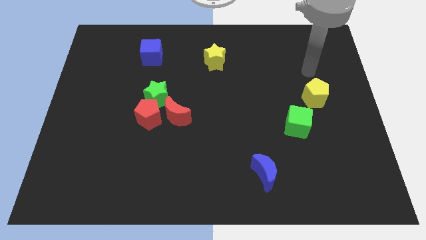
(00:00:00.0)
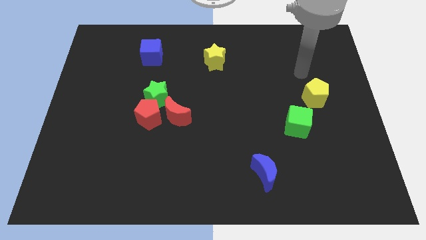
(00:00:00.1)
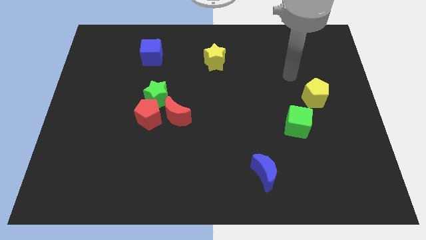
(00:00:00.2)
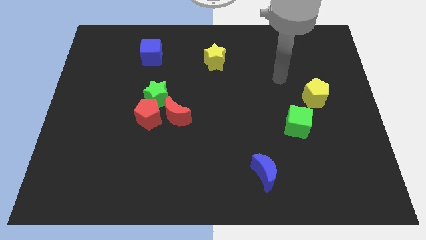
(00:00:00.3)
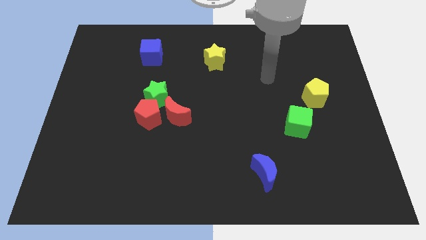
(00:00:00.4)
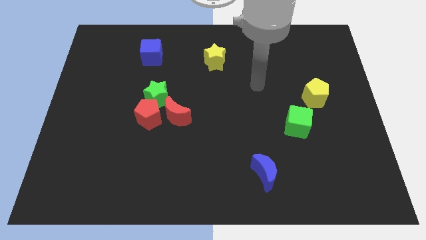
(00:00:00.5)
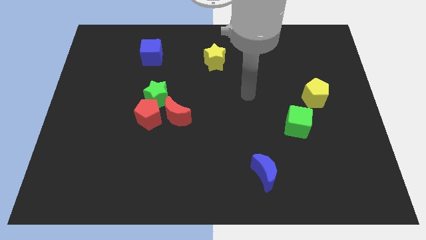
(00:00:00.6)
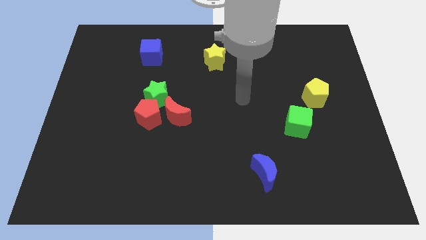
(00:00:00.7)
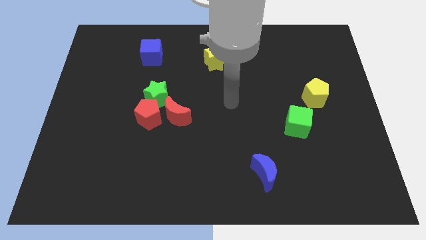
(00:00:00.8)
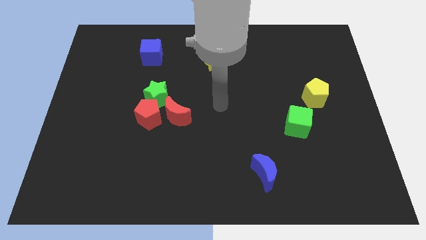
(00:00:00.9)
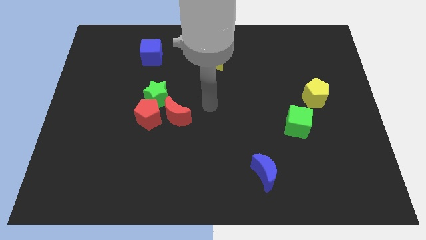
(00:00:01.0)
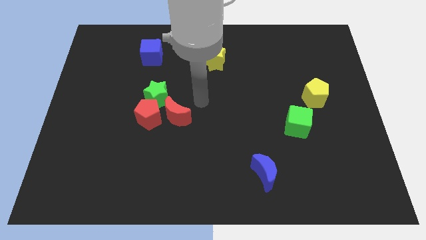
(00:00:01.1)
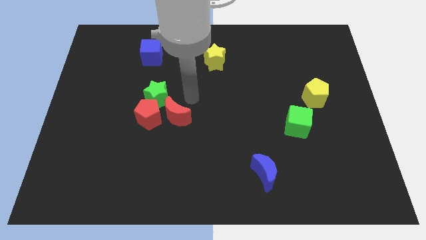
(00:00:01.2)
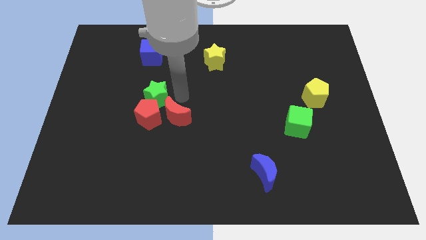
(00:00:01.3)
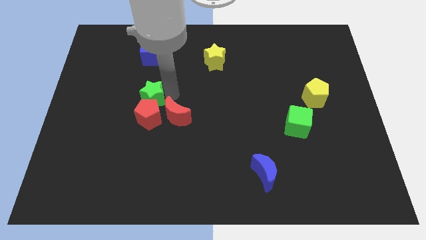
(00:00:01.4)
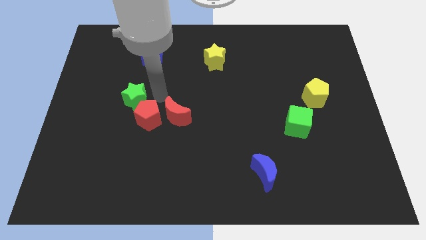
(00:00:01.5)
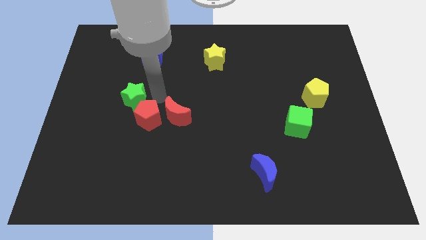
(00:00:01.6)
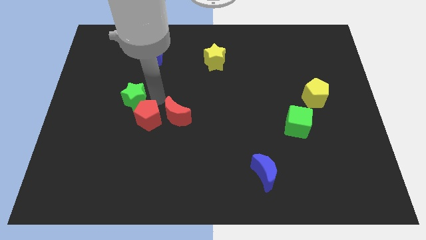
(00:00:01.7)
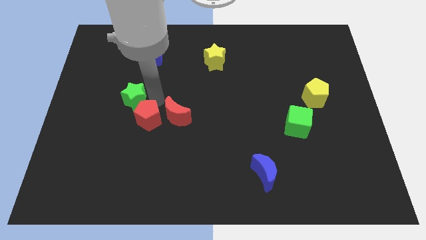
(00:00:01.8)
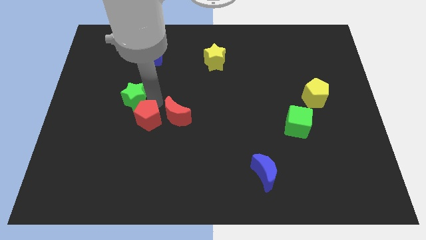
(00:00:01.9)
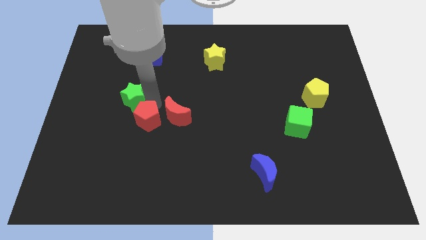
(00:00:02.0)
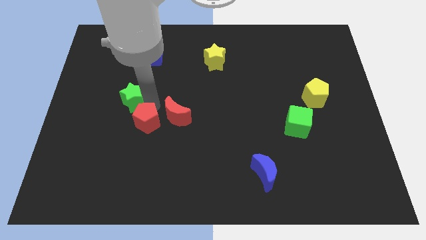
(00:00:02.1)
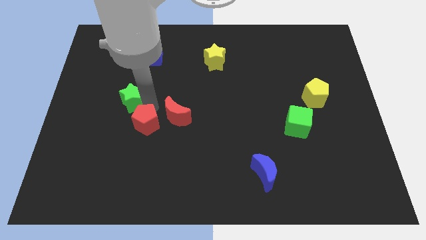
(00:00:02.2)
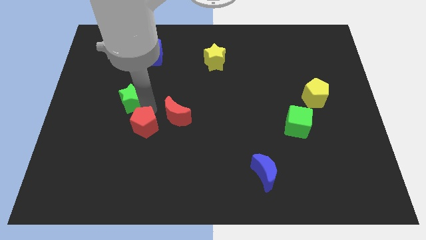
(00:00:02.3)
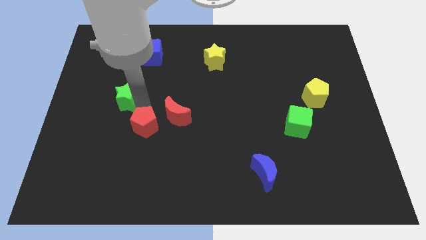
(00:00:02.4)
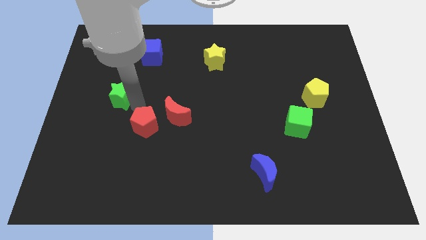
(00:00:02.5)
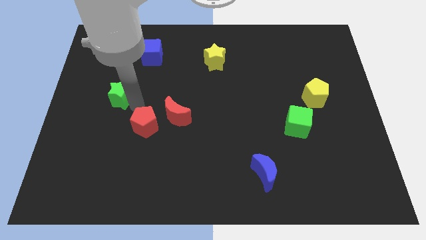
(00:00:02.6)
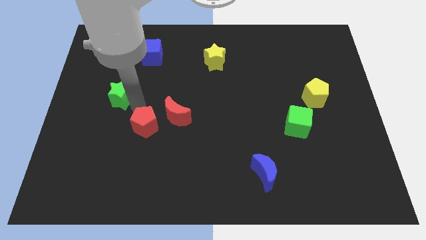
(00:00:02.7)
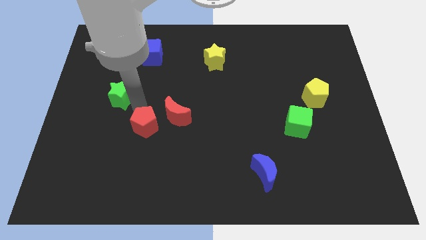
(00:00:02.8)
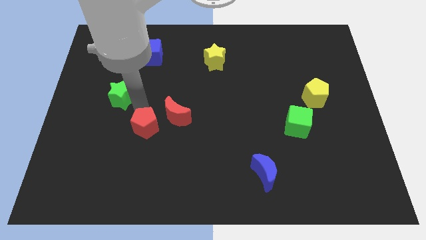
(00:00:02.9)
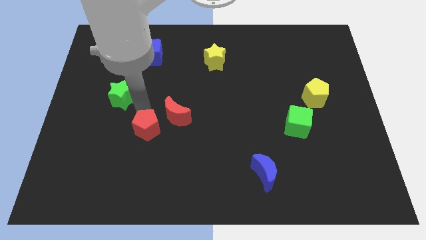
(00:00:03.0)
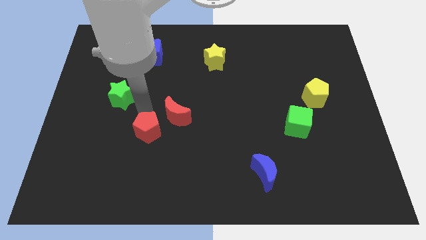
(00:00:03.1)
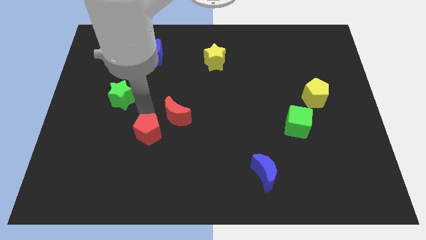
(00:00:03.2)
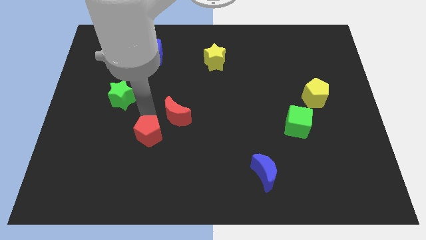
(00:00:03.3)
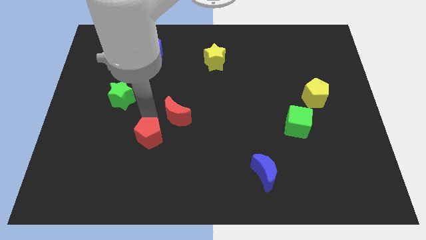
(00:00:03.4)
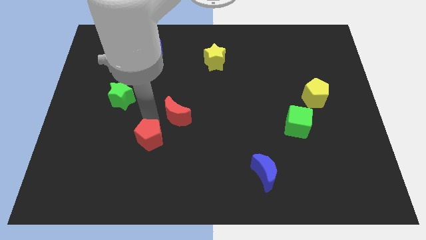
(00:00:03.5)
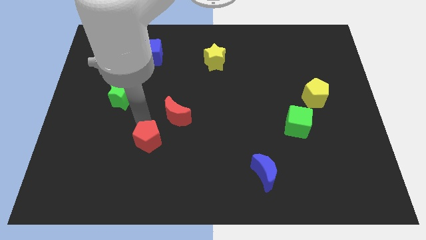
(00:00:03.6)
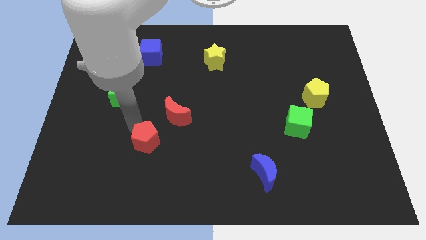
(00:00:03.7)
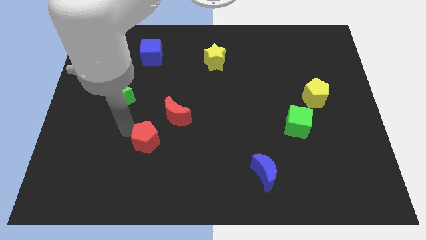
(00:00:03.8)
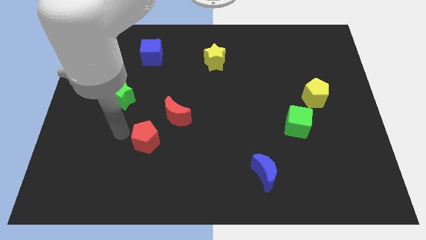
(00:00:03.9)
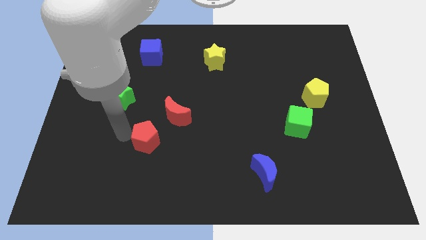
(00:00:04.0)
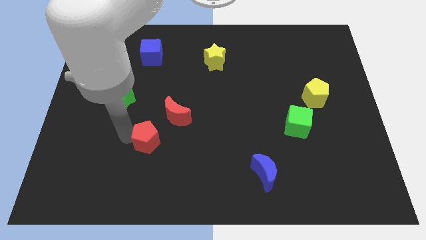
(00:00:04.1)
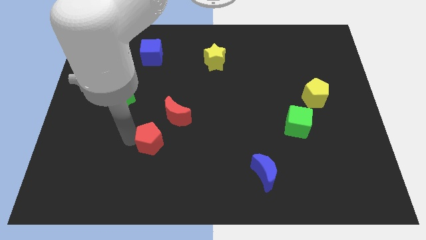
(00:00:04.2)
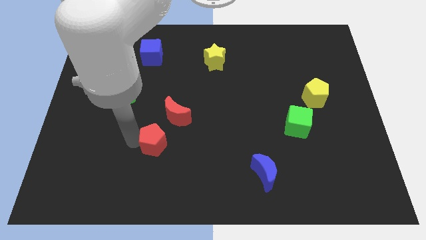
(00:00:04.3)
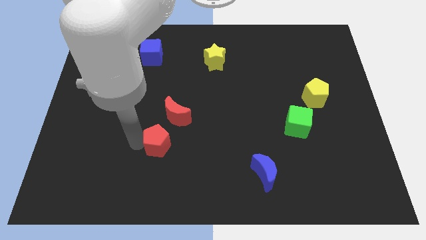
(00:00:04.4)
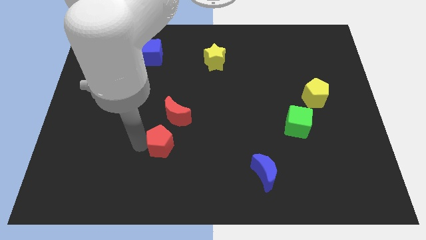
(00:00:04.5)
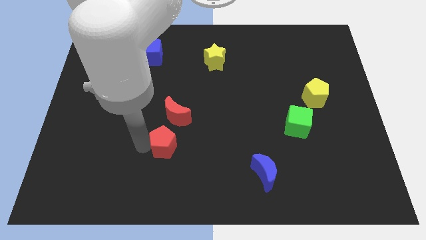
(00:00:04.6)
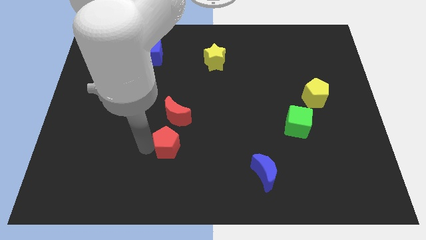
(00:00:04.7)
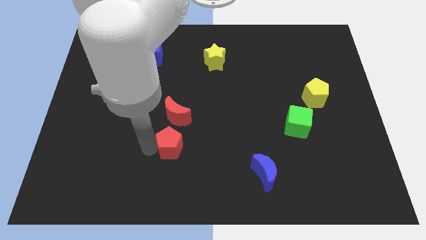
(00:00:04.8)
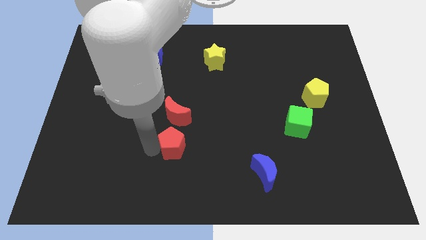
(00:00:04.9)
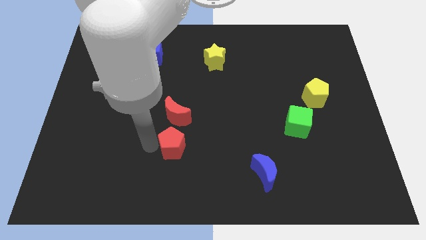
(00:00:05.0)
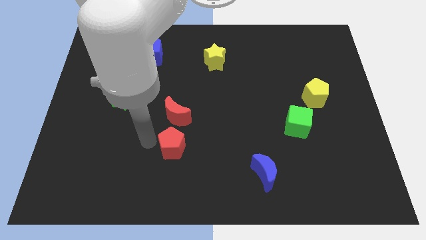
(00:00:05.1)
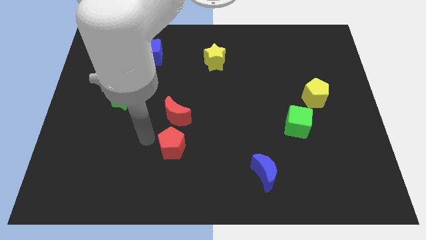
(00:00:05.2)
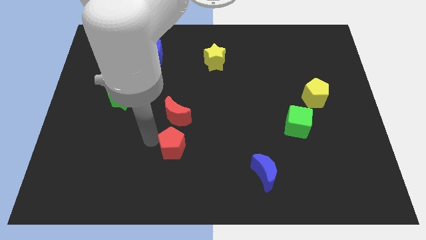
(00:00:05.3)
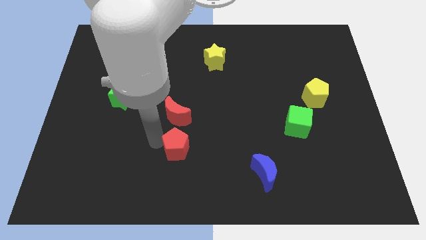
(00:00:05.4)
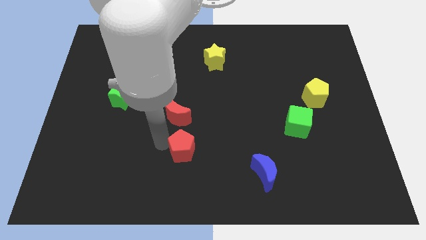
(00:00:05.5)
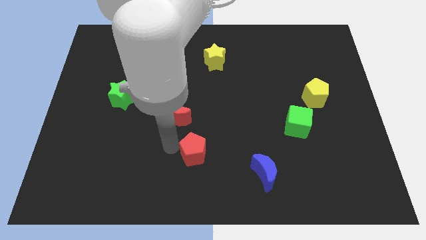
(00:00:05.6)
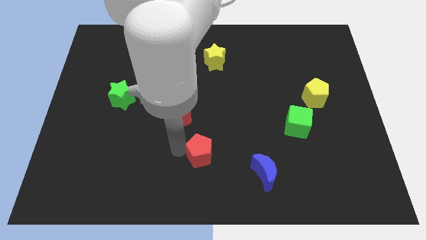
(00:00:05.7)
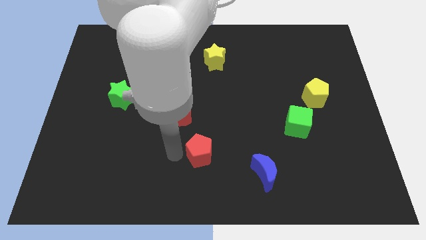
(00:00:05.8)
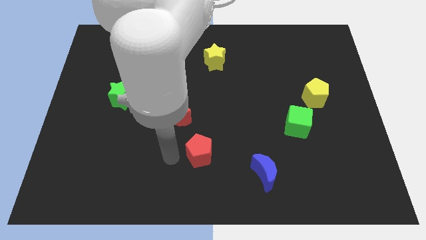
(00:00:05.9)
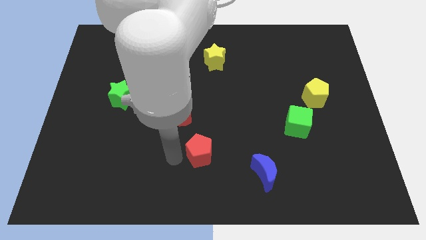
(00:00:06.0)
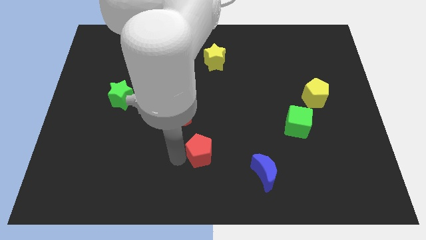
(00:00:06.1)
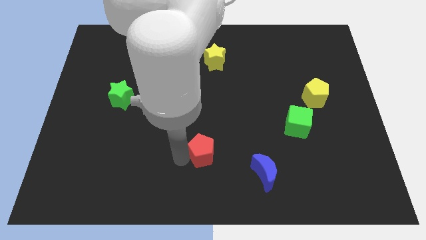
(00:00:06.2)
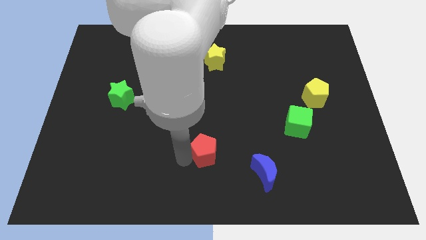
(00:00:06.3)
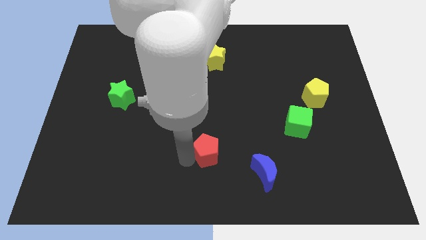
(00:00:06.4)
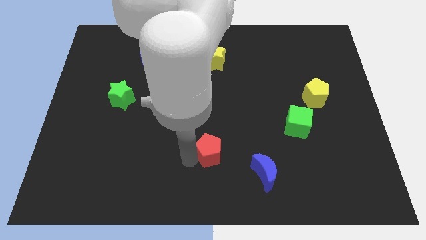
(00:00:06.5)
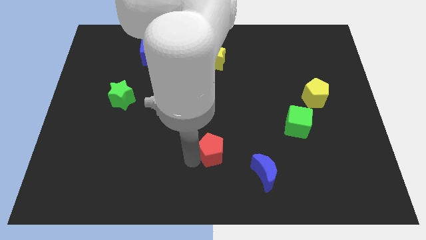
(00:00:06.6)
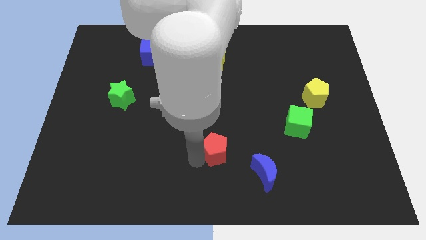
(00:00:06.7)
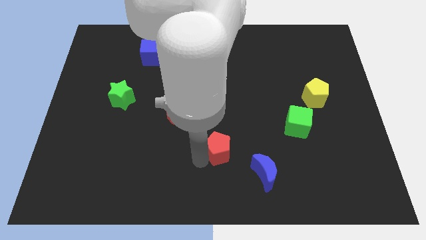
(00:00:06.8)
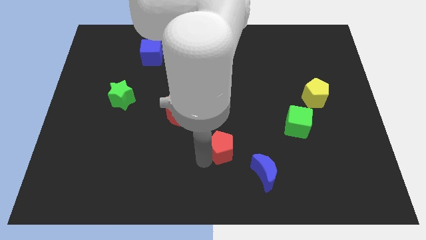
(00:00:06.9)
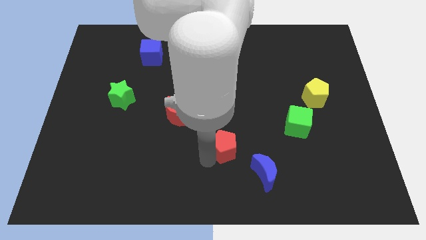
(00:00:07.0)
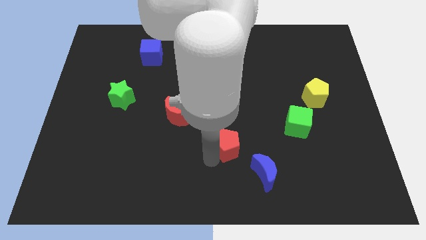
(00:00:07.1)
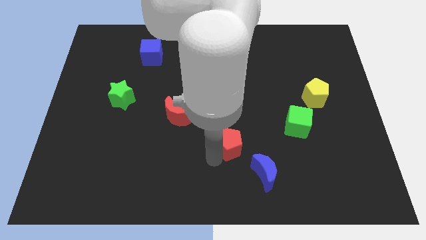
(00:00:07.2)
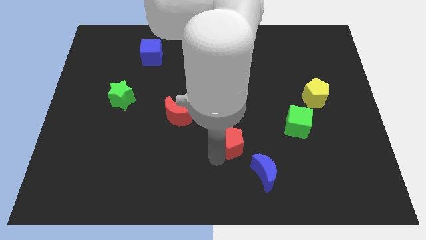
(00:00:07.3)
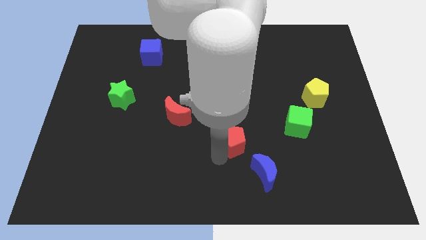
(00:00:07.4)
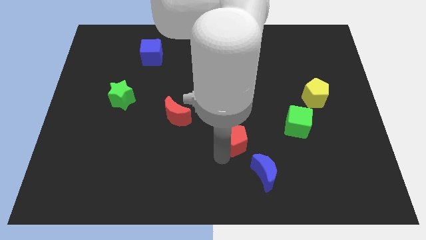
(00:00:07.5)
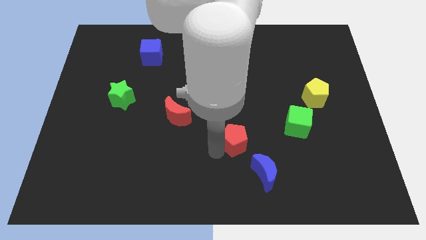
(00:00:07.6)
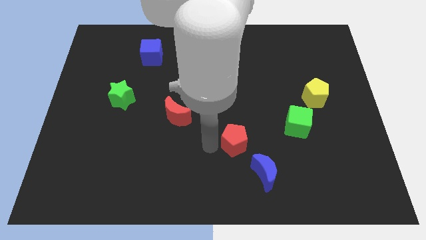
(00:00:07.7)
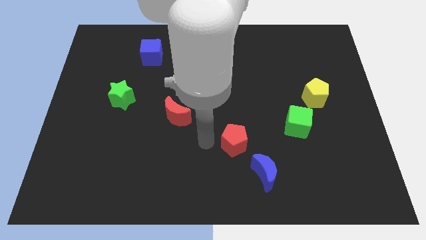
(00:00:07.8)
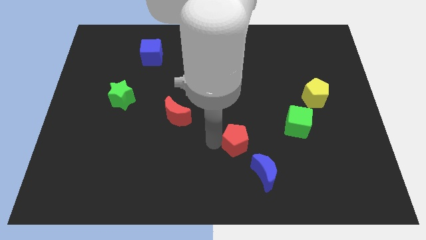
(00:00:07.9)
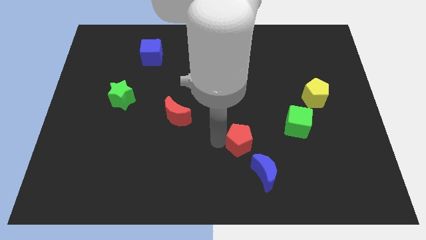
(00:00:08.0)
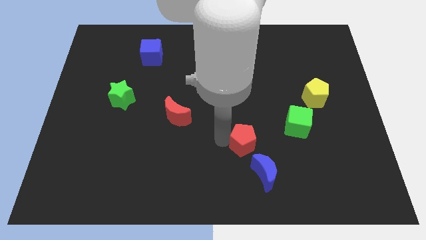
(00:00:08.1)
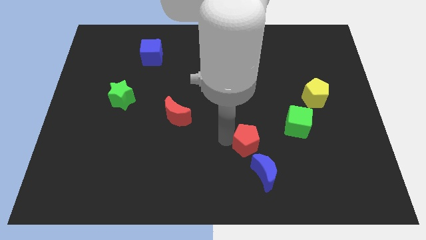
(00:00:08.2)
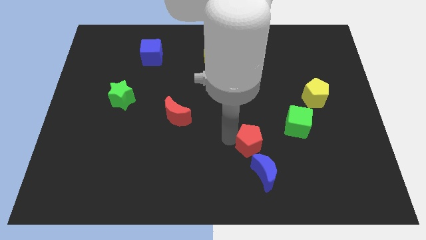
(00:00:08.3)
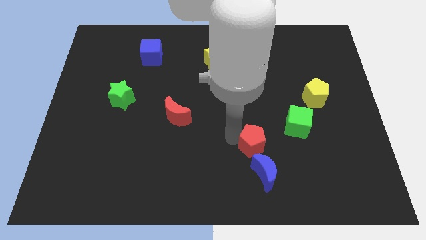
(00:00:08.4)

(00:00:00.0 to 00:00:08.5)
push the red pentagon to the bottom left side of the green cube
